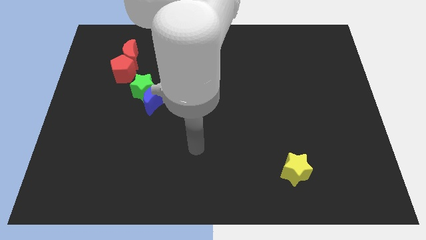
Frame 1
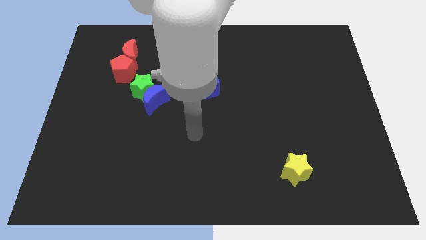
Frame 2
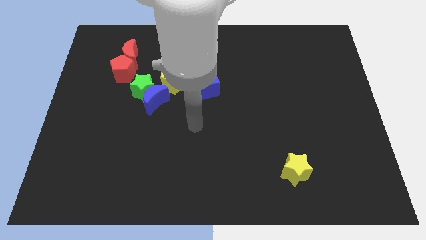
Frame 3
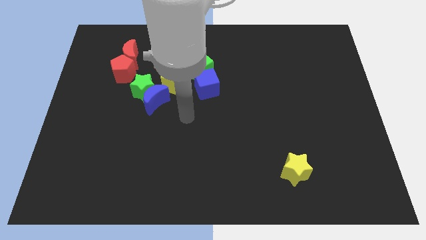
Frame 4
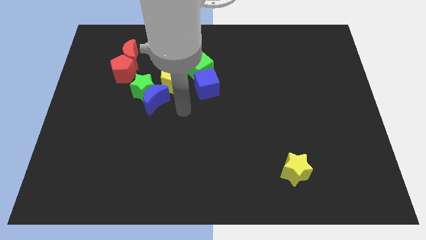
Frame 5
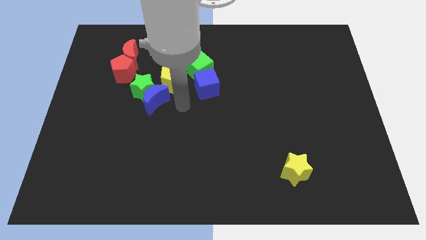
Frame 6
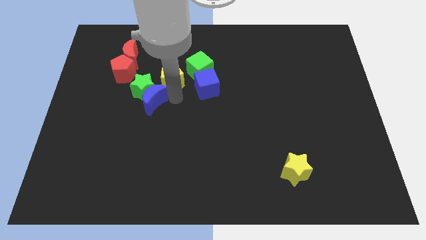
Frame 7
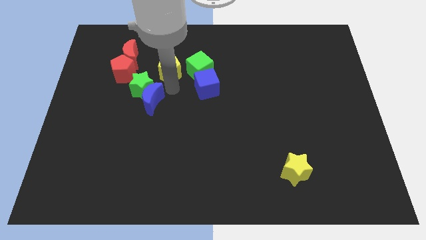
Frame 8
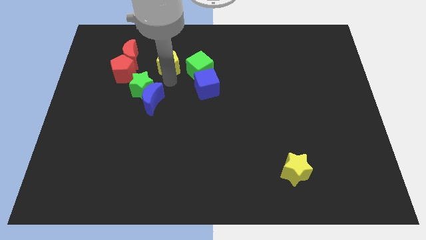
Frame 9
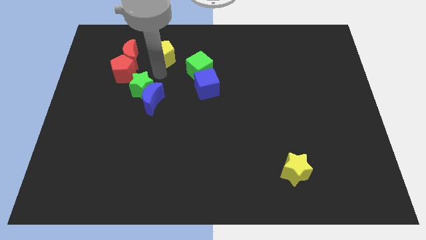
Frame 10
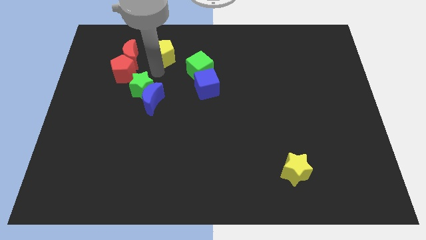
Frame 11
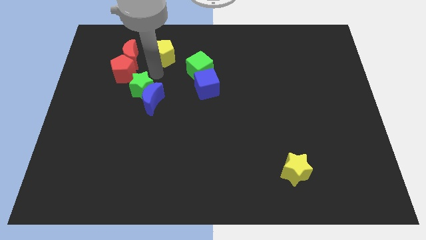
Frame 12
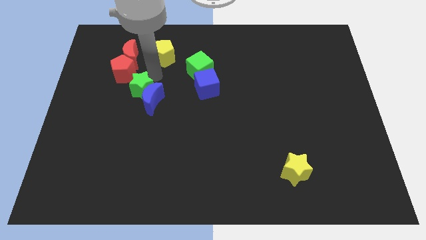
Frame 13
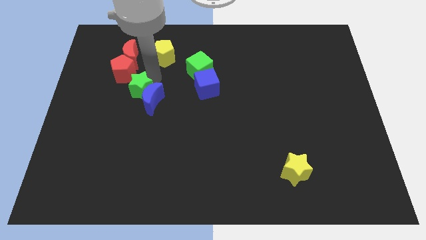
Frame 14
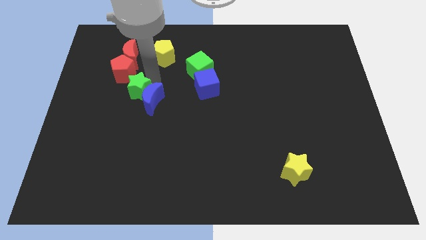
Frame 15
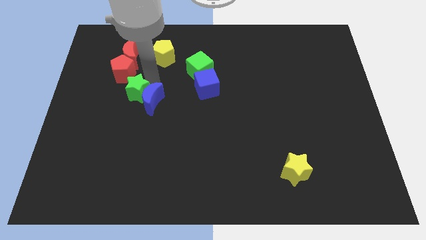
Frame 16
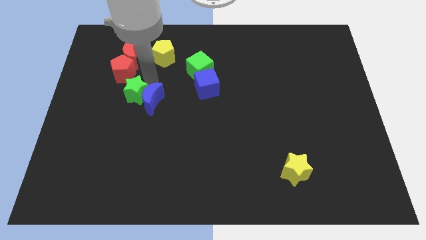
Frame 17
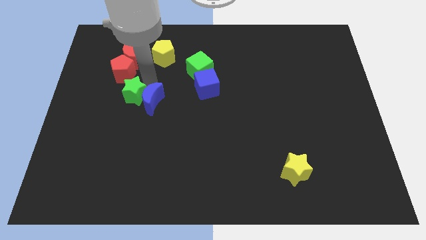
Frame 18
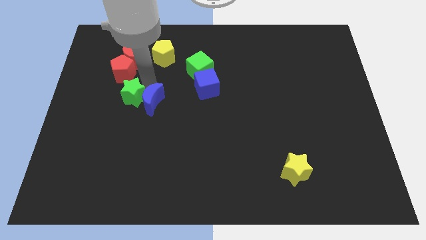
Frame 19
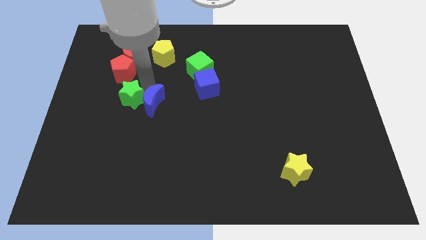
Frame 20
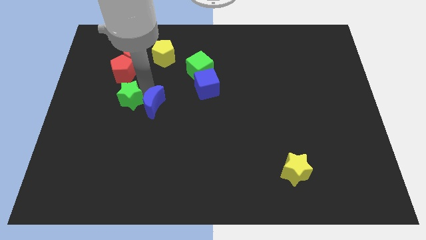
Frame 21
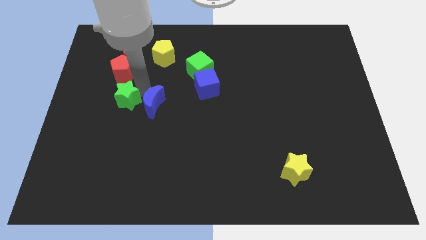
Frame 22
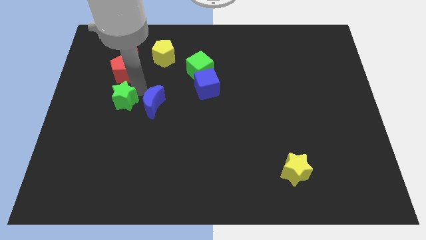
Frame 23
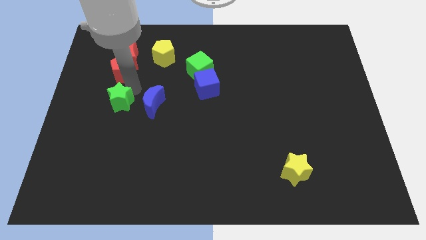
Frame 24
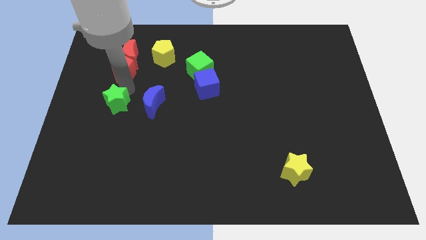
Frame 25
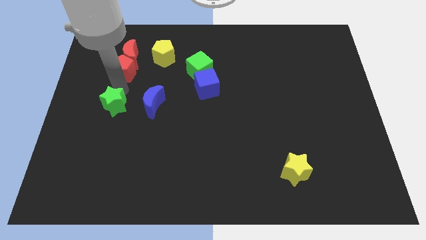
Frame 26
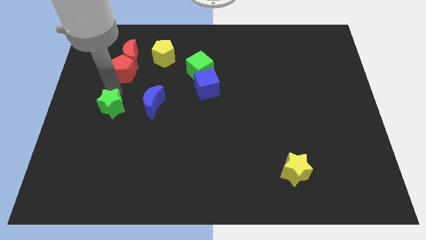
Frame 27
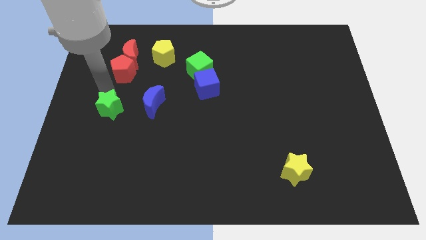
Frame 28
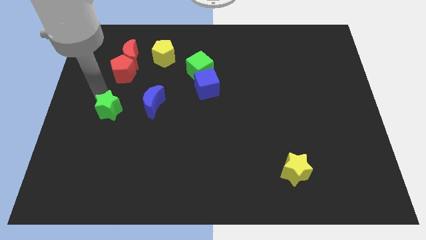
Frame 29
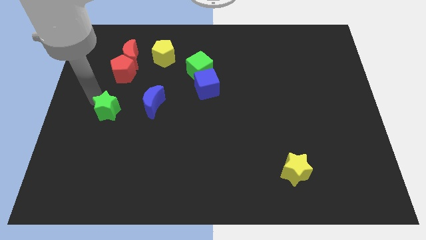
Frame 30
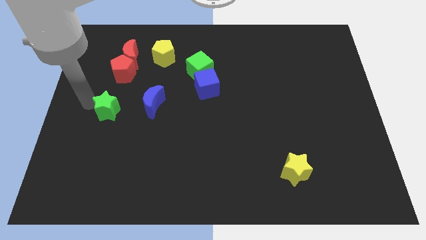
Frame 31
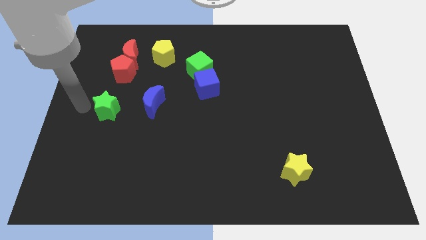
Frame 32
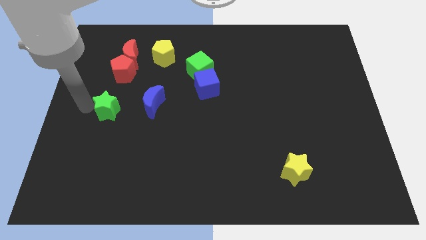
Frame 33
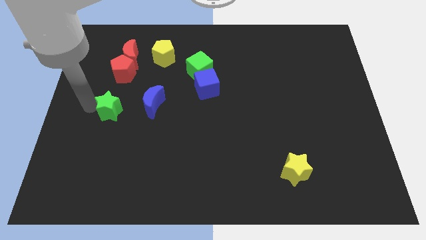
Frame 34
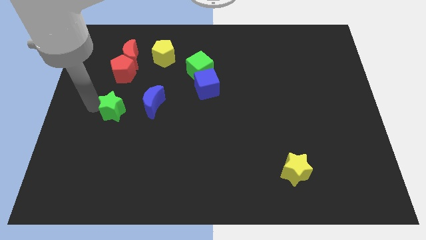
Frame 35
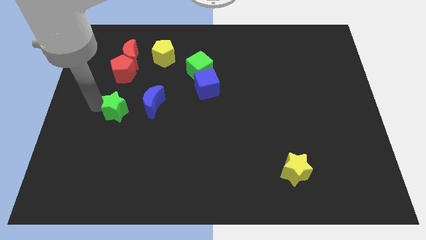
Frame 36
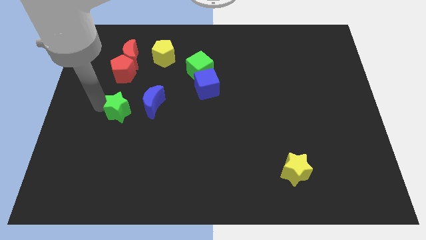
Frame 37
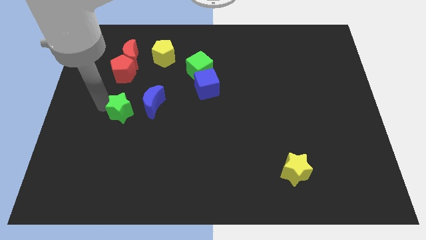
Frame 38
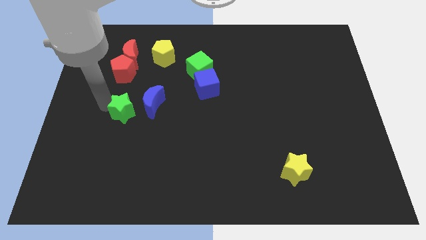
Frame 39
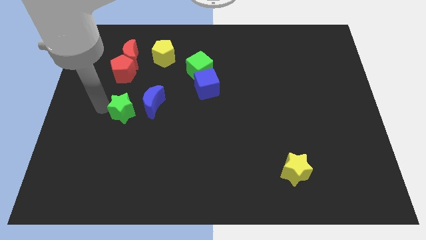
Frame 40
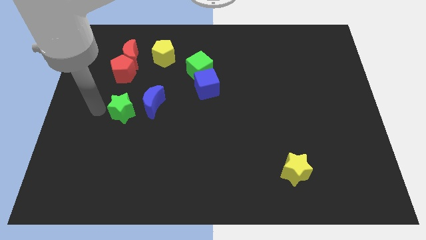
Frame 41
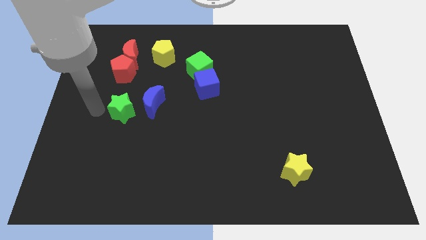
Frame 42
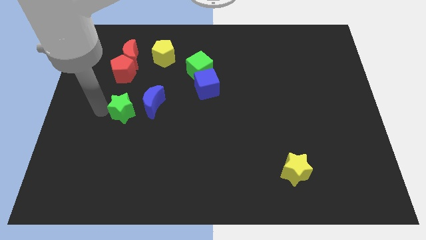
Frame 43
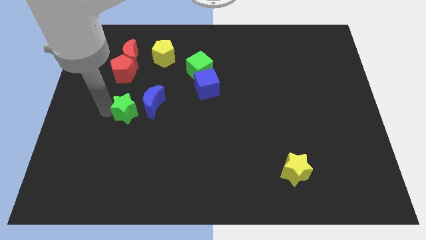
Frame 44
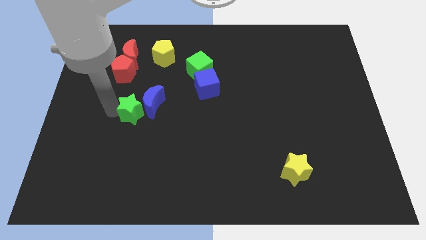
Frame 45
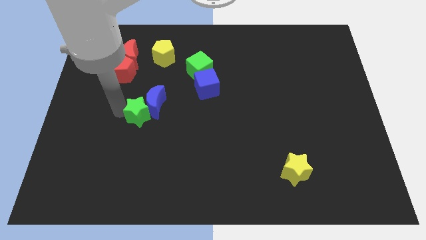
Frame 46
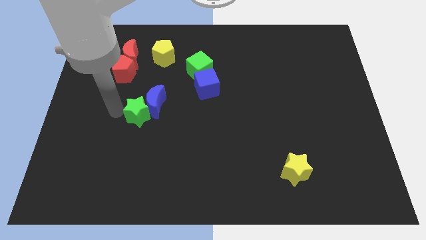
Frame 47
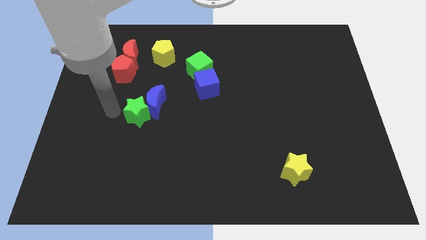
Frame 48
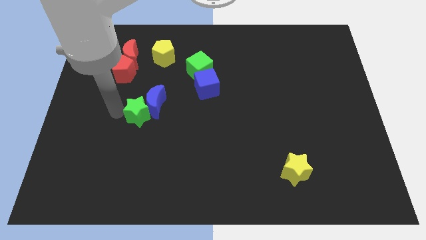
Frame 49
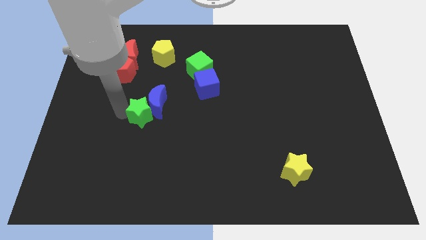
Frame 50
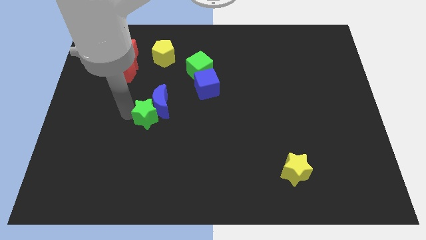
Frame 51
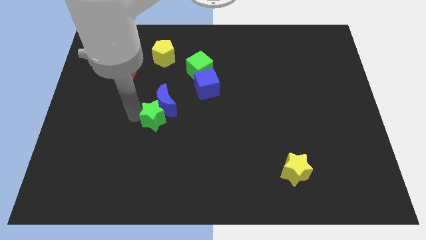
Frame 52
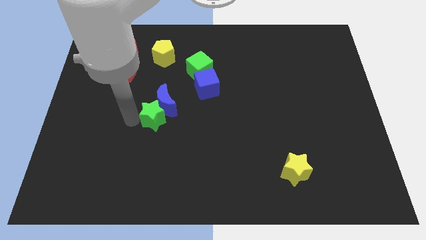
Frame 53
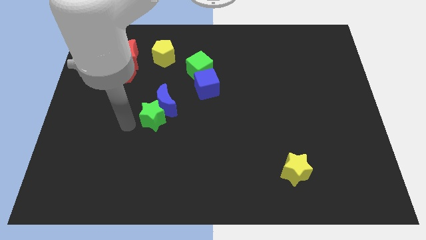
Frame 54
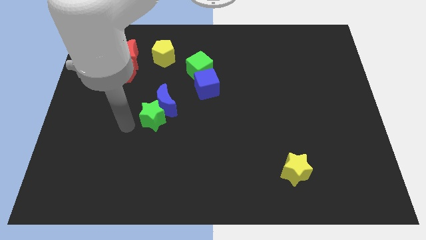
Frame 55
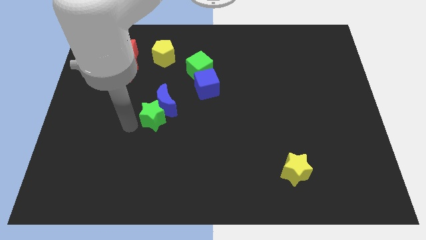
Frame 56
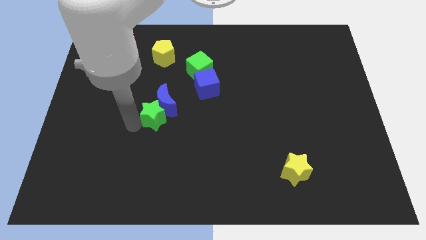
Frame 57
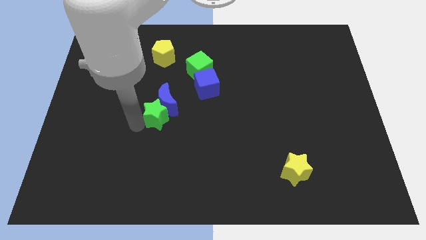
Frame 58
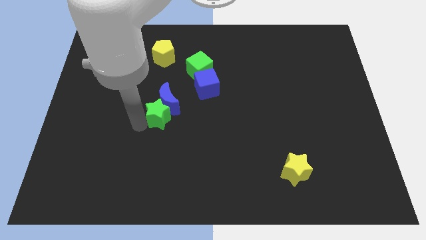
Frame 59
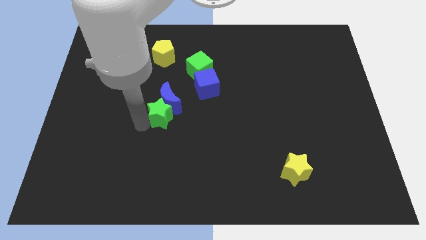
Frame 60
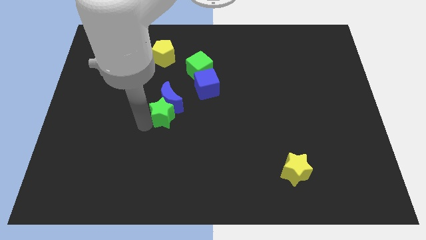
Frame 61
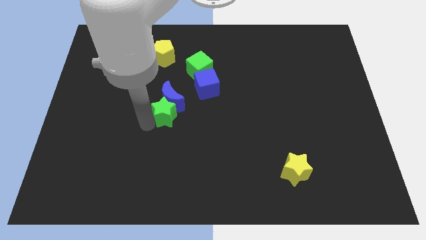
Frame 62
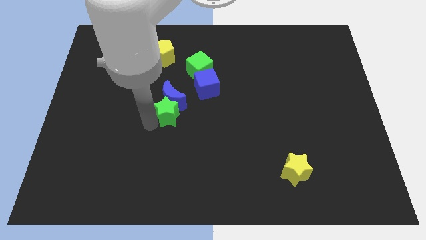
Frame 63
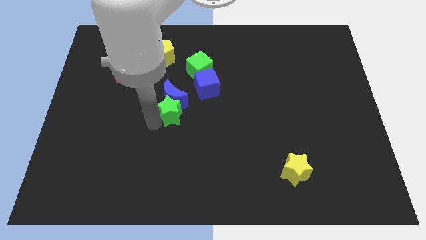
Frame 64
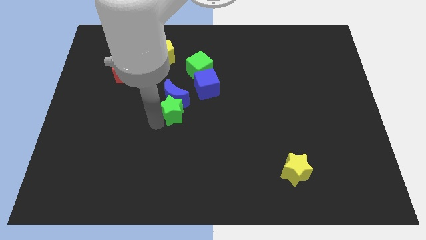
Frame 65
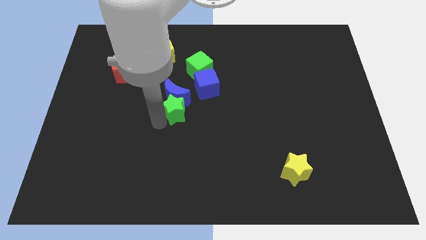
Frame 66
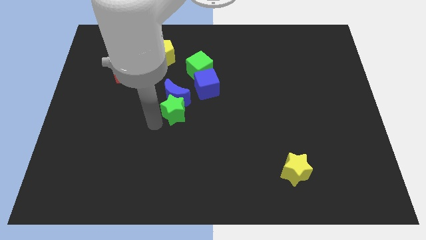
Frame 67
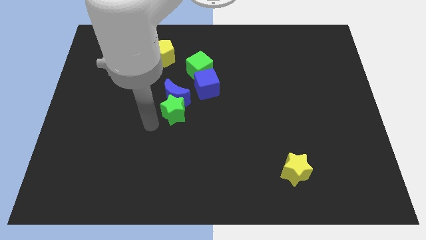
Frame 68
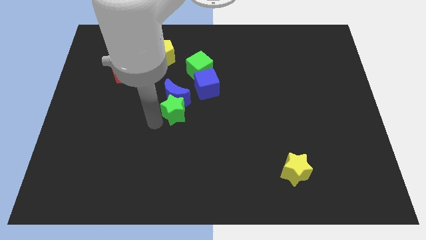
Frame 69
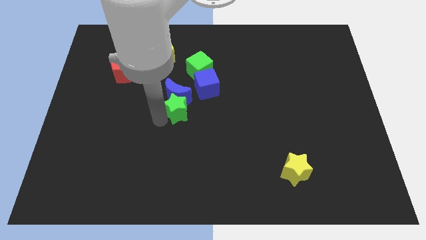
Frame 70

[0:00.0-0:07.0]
slightly slide the green star to the right

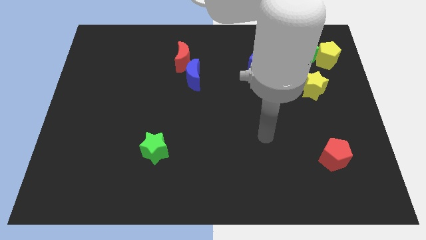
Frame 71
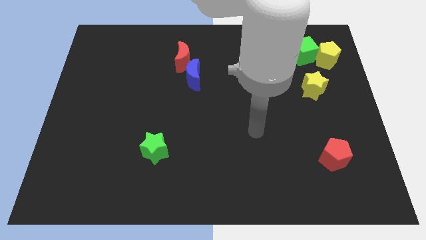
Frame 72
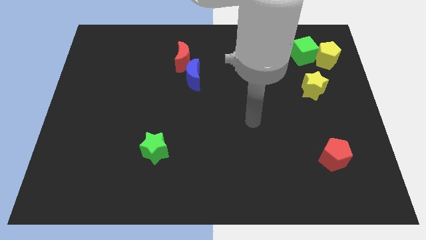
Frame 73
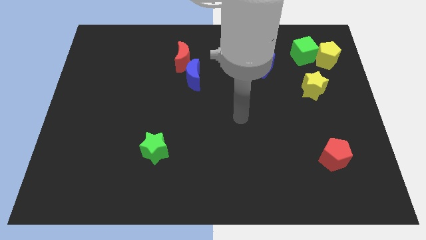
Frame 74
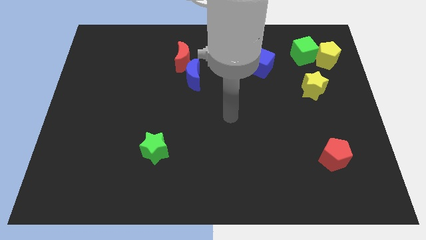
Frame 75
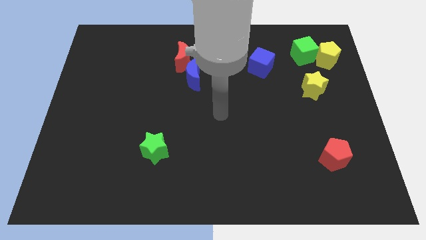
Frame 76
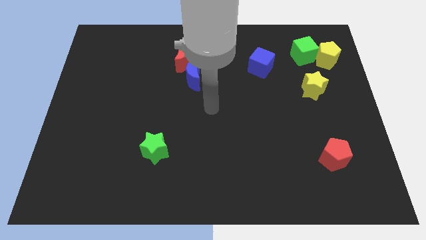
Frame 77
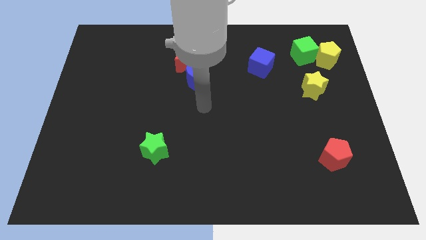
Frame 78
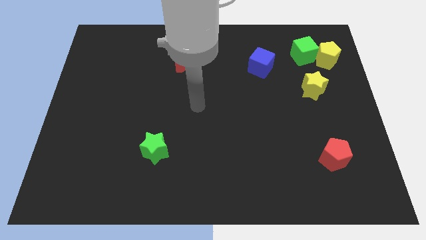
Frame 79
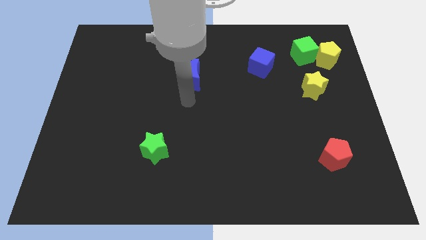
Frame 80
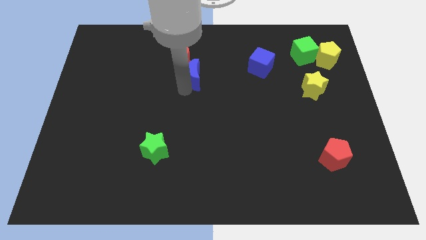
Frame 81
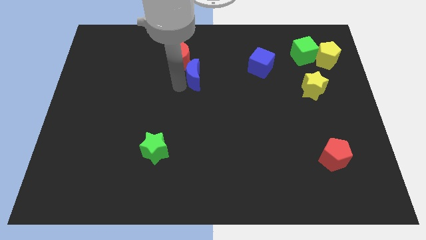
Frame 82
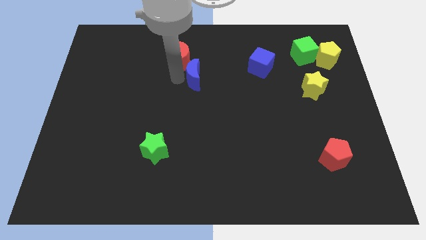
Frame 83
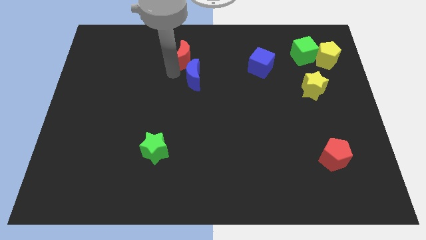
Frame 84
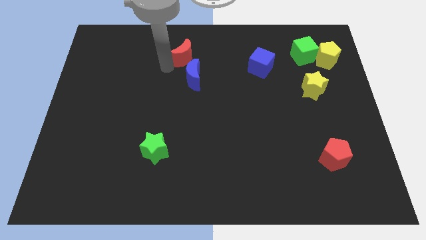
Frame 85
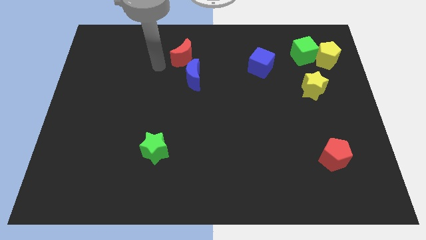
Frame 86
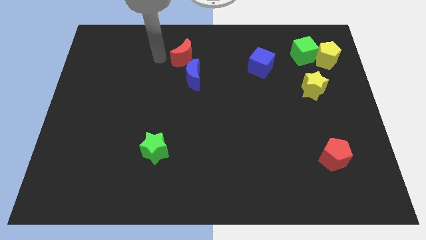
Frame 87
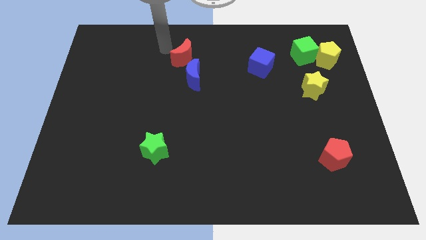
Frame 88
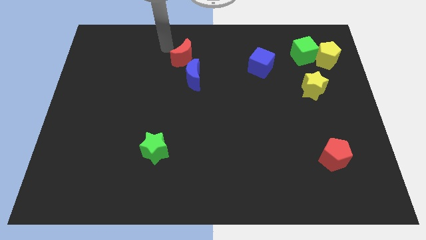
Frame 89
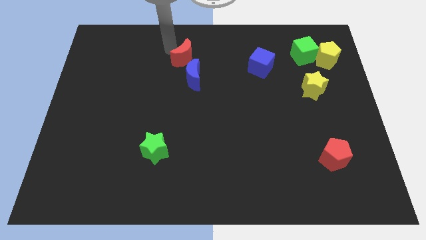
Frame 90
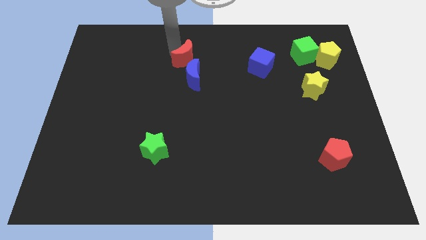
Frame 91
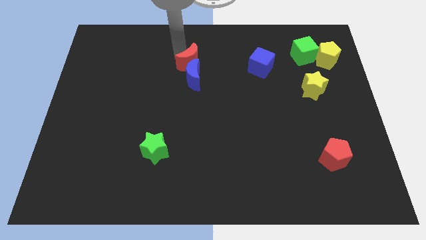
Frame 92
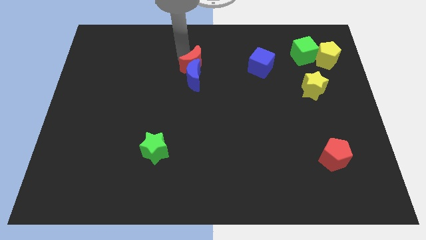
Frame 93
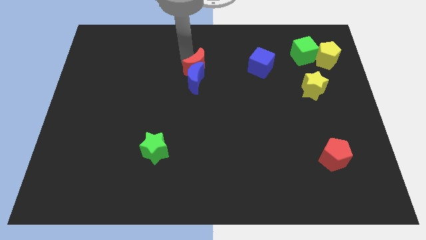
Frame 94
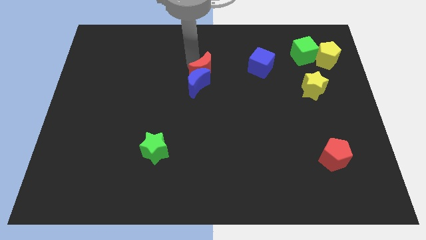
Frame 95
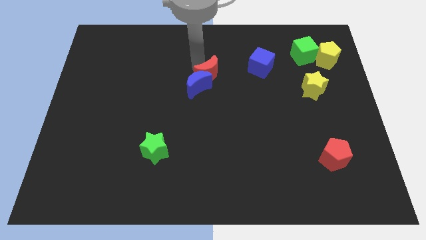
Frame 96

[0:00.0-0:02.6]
push the red moon downwards and right a little
